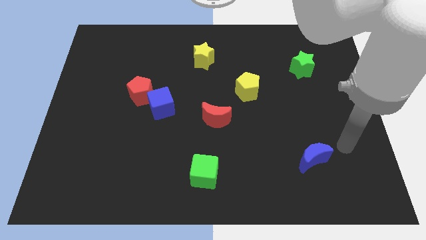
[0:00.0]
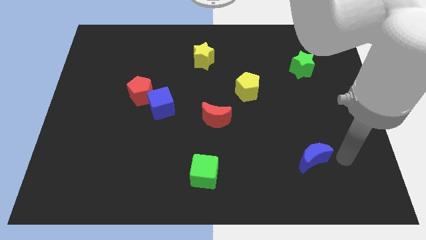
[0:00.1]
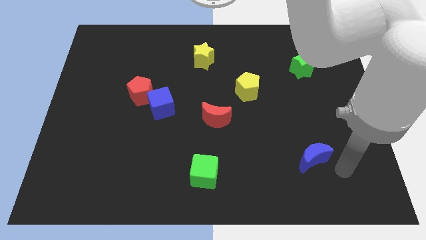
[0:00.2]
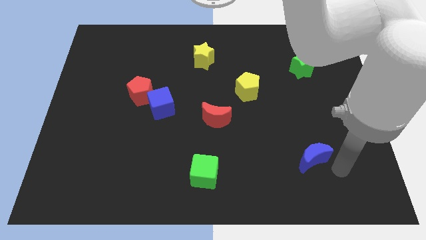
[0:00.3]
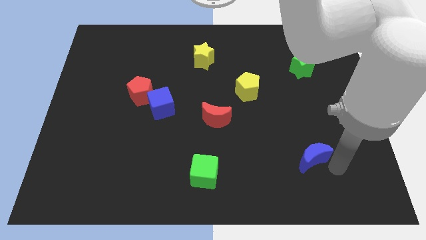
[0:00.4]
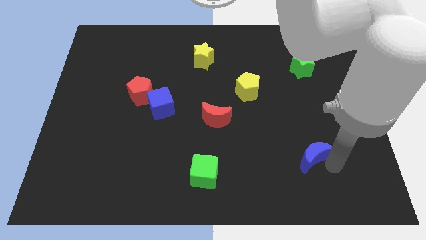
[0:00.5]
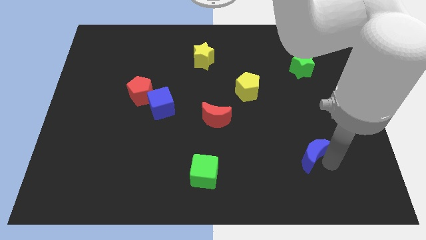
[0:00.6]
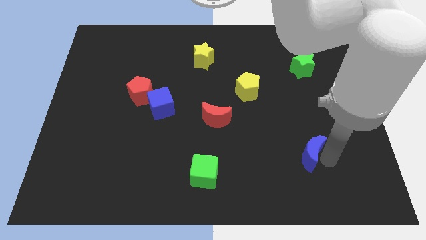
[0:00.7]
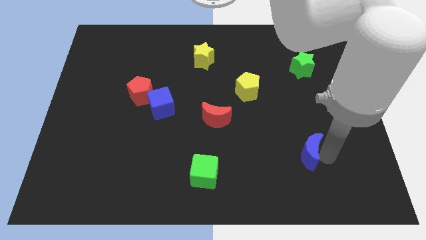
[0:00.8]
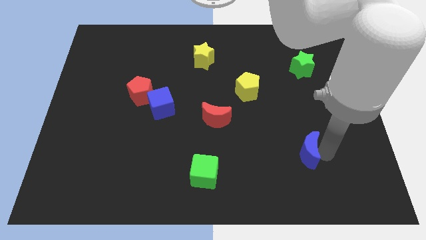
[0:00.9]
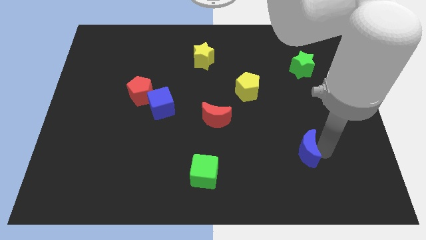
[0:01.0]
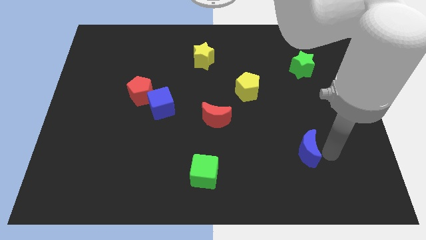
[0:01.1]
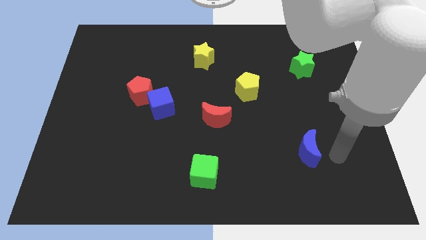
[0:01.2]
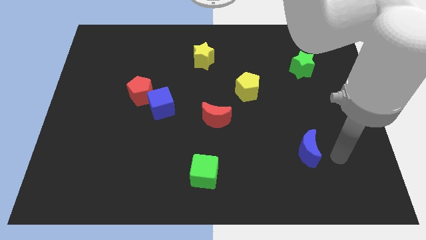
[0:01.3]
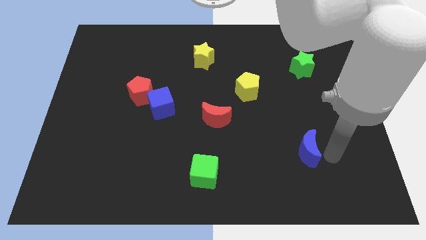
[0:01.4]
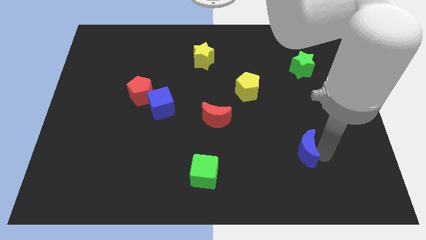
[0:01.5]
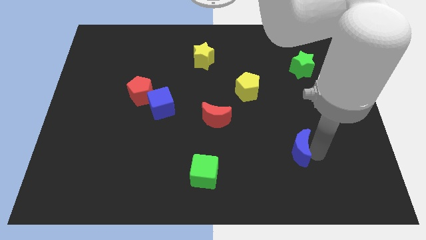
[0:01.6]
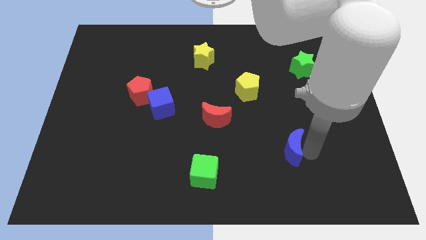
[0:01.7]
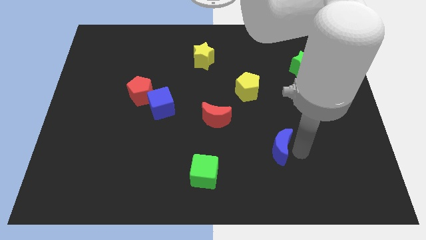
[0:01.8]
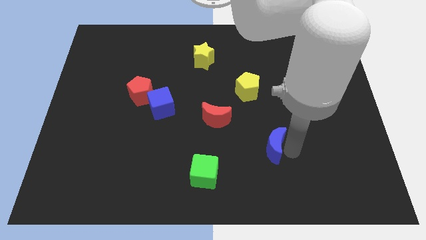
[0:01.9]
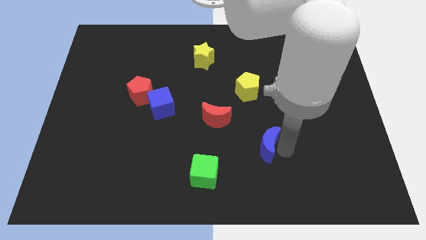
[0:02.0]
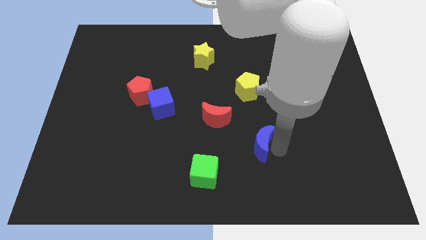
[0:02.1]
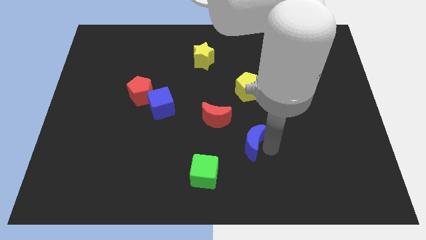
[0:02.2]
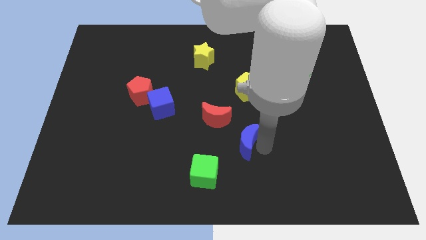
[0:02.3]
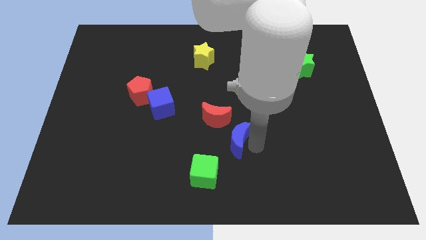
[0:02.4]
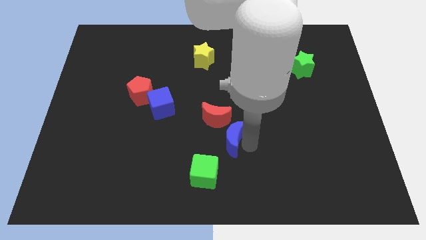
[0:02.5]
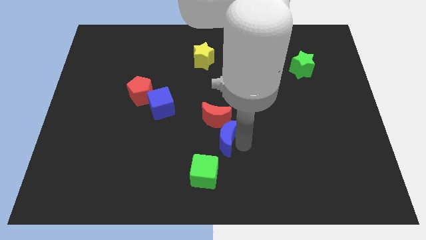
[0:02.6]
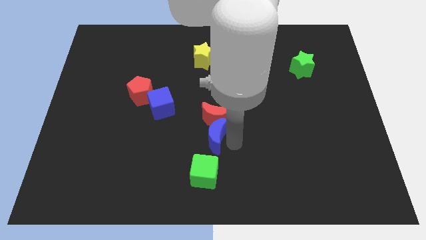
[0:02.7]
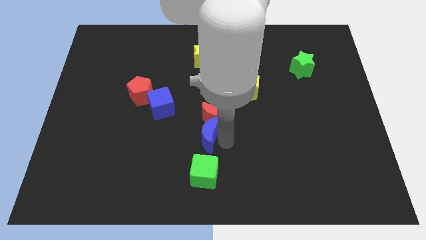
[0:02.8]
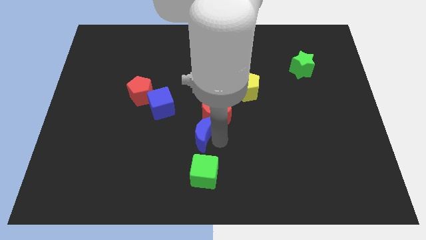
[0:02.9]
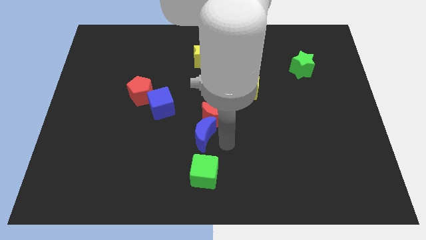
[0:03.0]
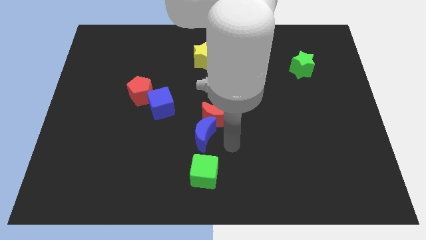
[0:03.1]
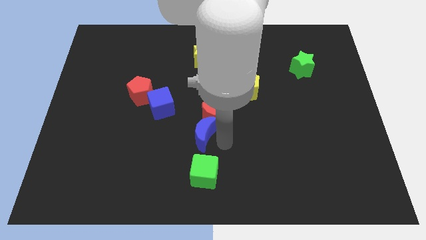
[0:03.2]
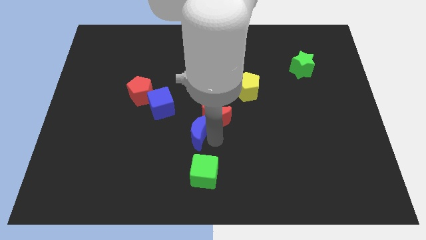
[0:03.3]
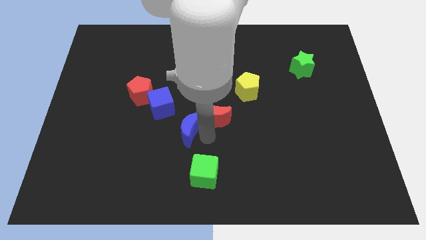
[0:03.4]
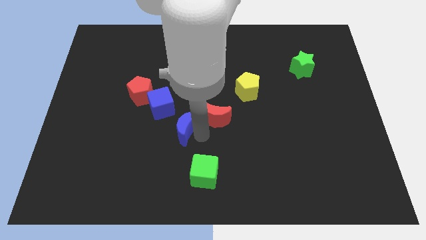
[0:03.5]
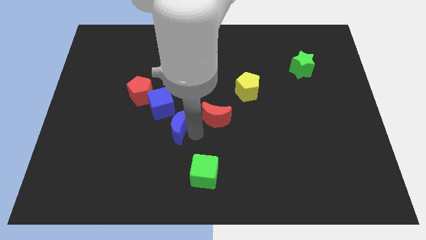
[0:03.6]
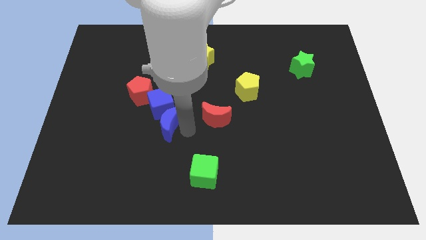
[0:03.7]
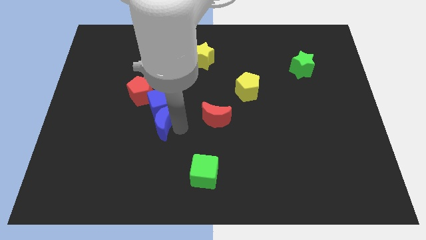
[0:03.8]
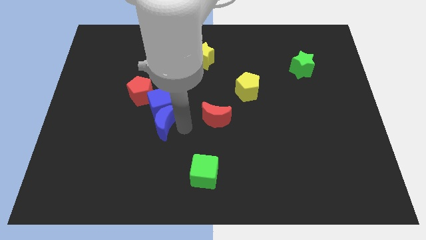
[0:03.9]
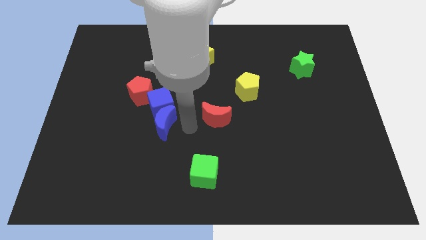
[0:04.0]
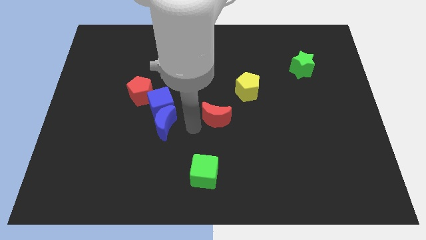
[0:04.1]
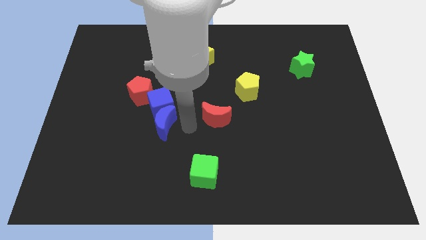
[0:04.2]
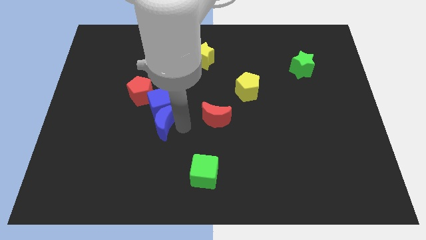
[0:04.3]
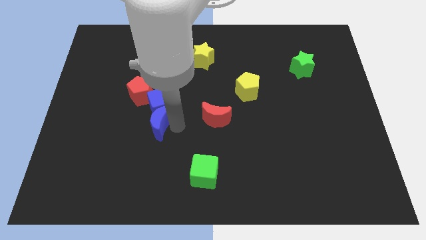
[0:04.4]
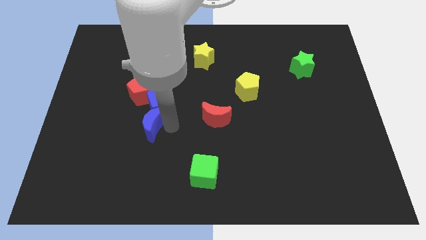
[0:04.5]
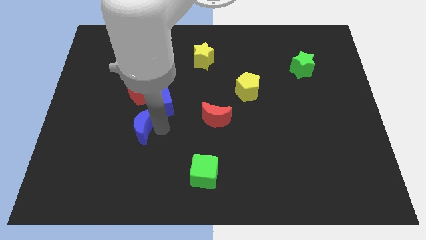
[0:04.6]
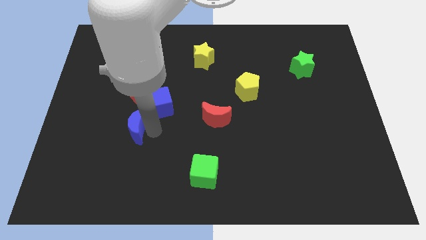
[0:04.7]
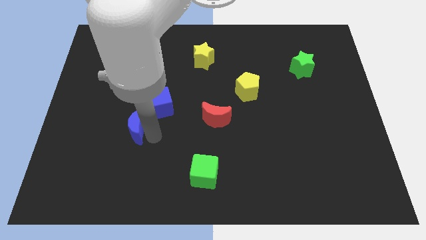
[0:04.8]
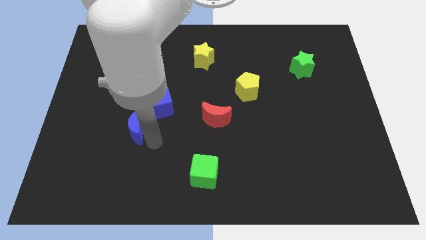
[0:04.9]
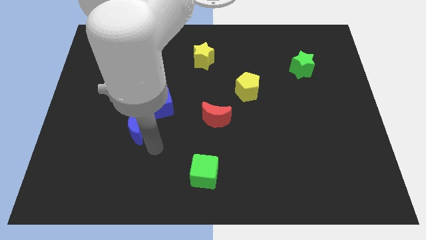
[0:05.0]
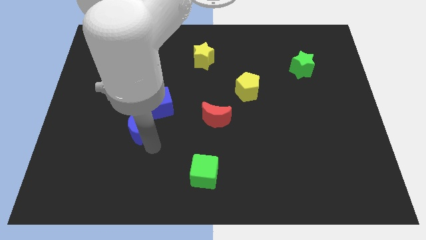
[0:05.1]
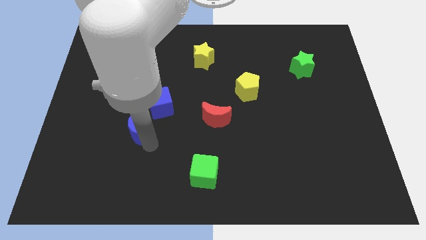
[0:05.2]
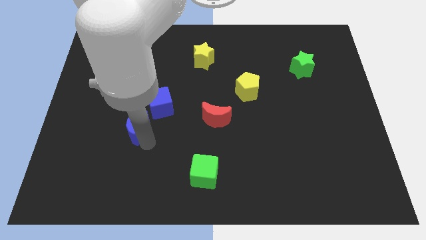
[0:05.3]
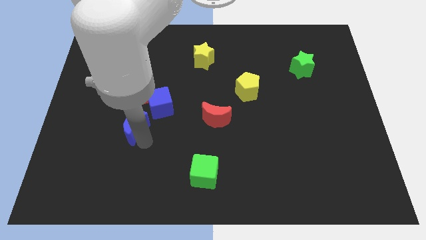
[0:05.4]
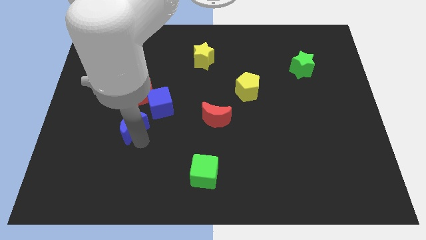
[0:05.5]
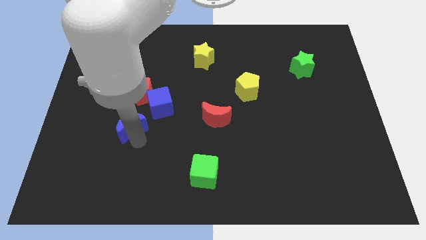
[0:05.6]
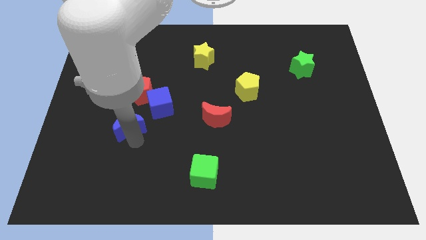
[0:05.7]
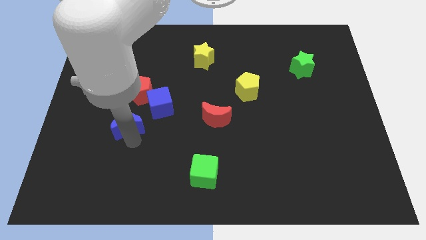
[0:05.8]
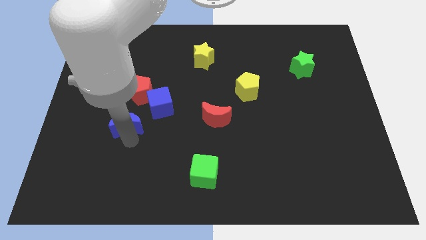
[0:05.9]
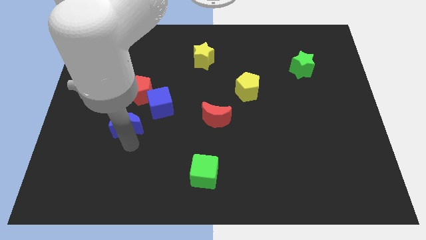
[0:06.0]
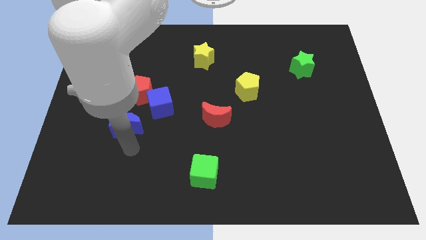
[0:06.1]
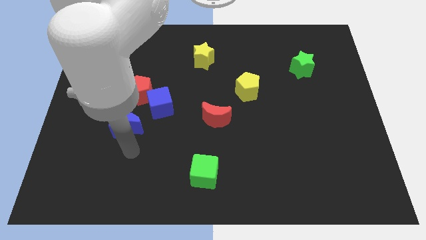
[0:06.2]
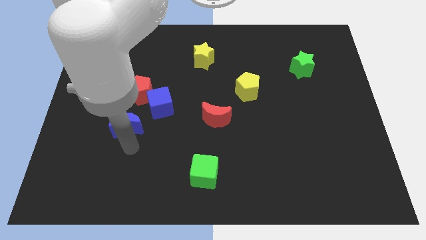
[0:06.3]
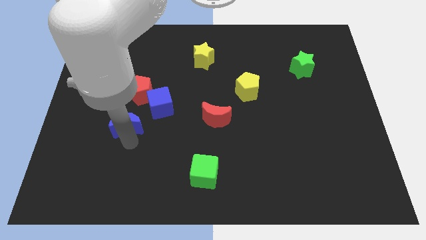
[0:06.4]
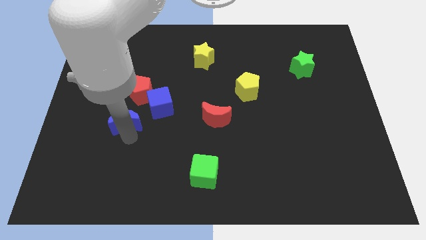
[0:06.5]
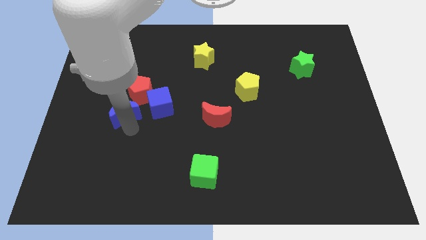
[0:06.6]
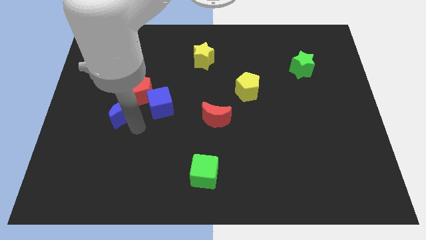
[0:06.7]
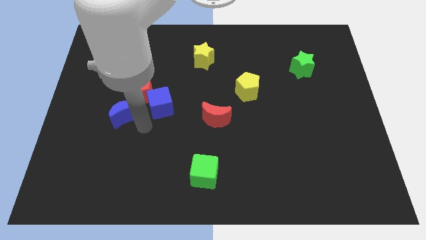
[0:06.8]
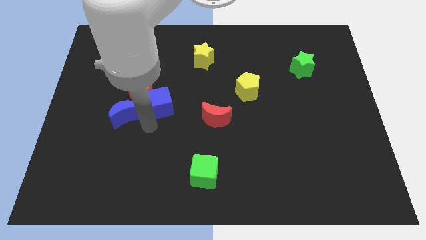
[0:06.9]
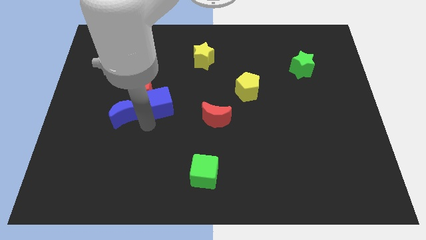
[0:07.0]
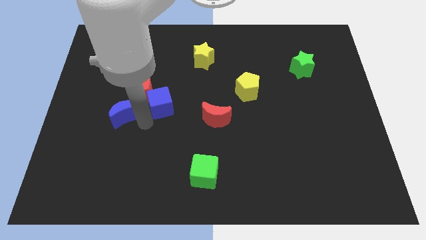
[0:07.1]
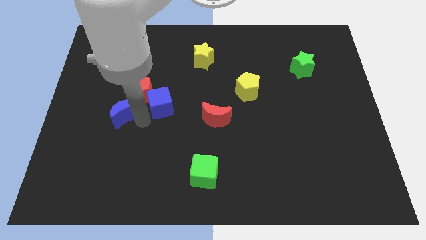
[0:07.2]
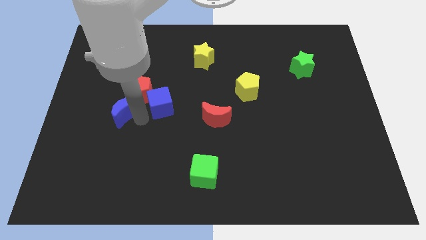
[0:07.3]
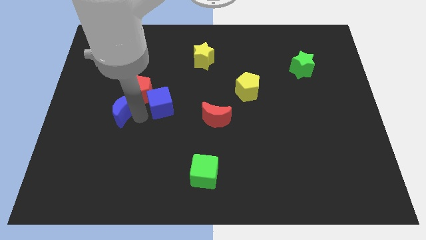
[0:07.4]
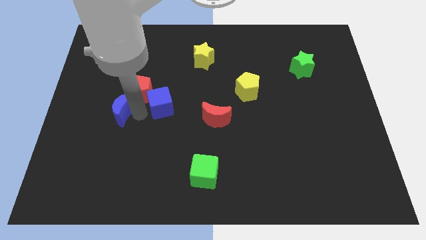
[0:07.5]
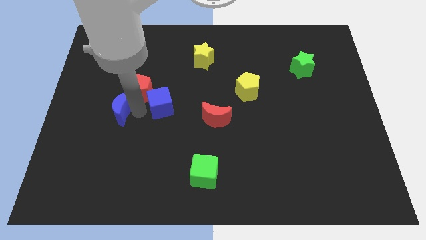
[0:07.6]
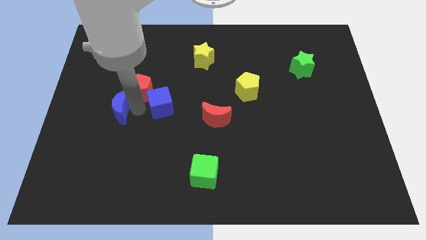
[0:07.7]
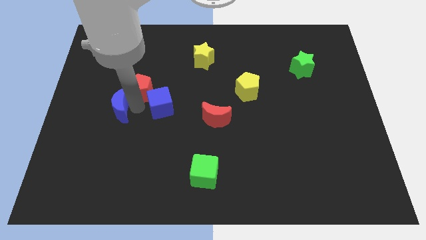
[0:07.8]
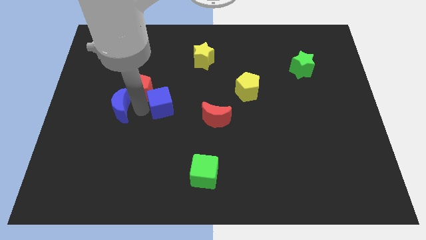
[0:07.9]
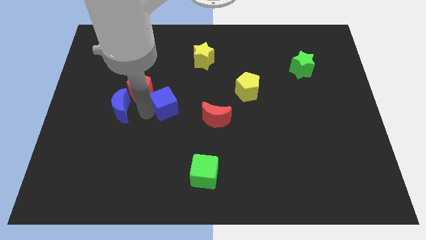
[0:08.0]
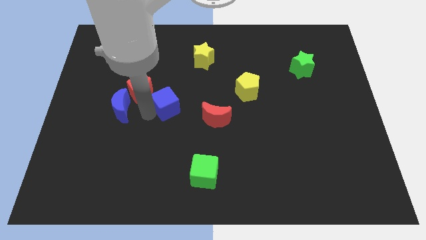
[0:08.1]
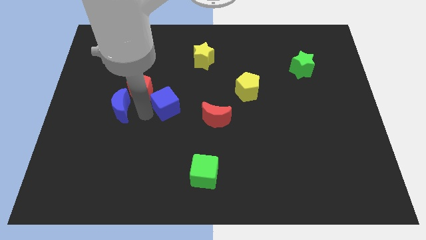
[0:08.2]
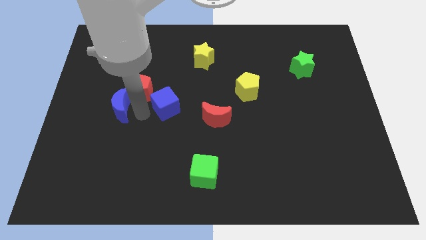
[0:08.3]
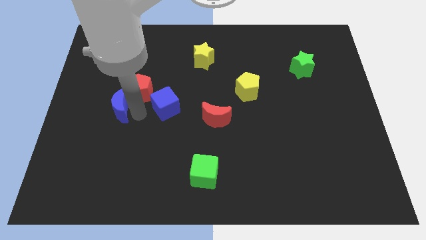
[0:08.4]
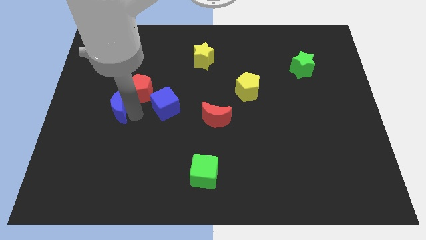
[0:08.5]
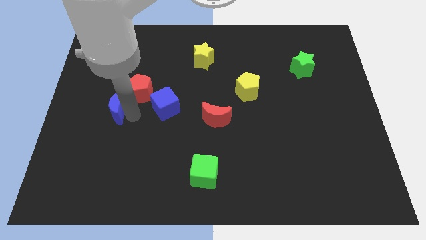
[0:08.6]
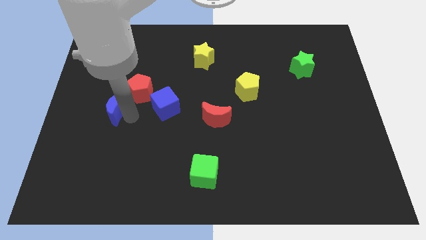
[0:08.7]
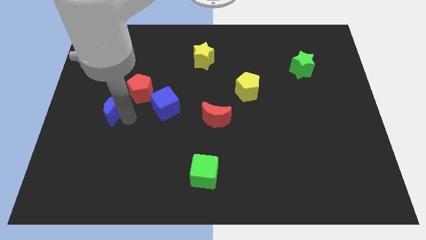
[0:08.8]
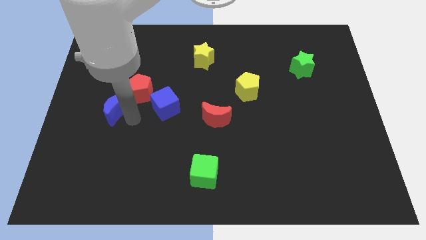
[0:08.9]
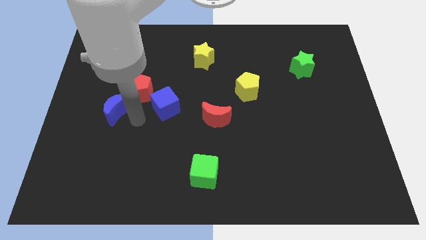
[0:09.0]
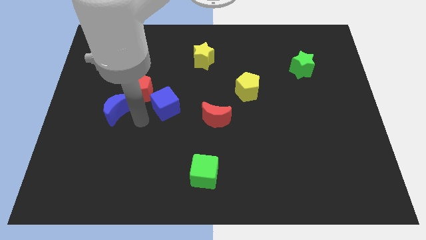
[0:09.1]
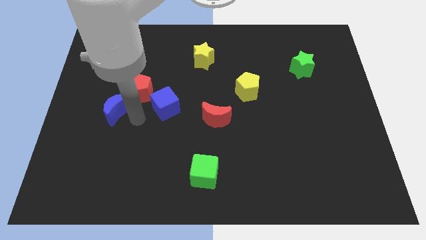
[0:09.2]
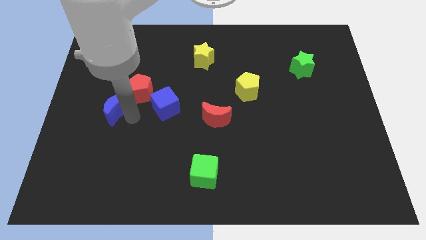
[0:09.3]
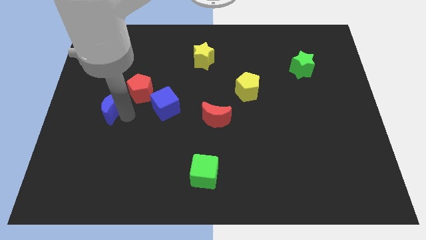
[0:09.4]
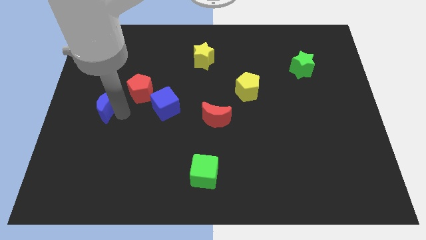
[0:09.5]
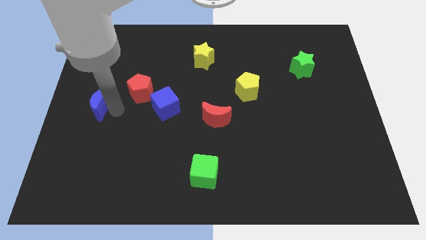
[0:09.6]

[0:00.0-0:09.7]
put the blue moon to the left side
